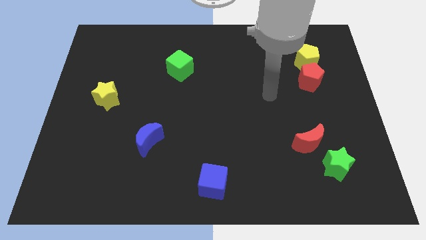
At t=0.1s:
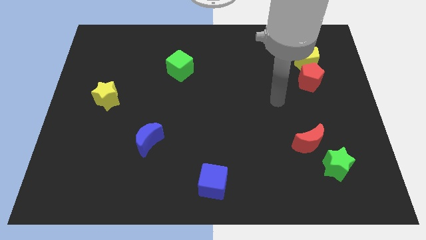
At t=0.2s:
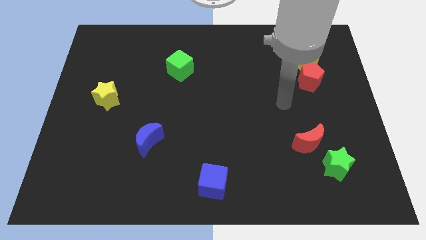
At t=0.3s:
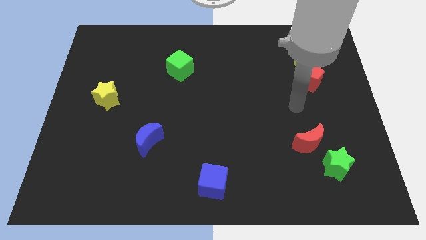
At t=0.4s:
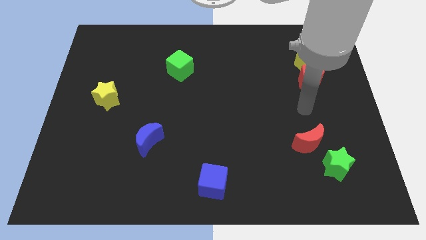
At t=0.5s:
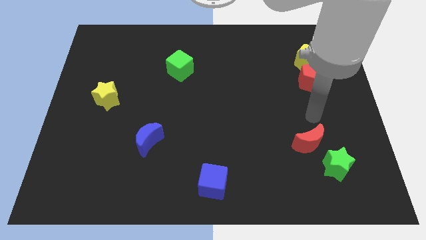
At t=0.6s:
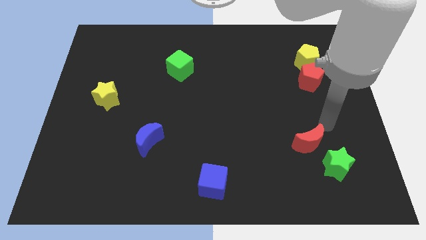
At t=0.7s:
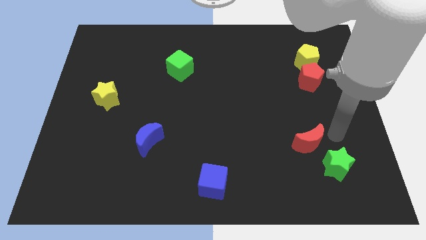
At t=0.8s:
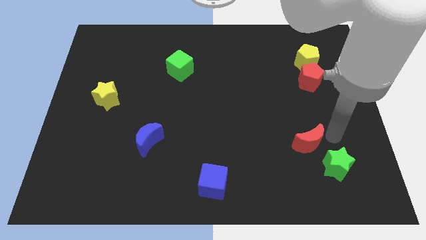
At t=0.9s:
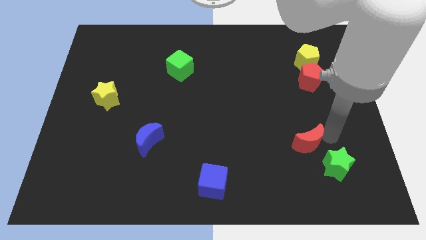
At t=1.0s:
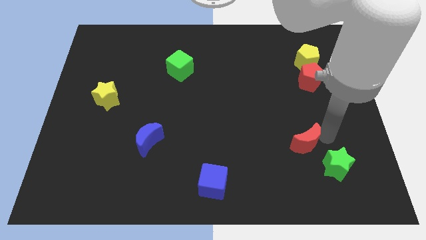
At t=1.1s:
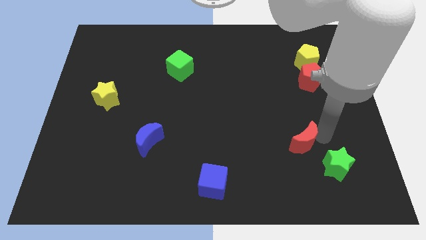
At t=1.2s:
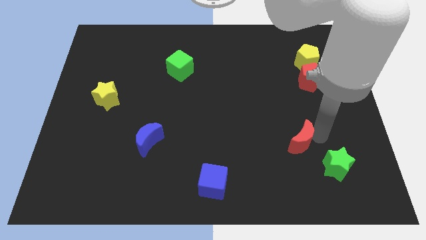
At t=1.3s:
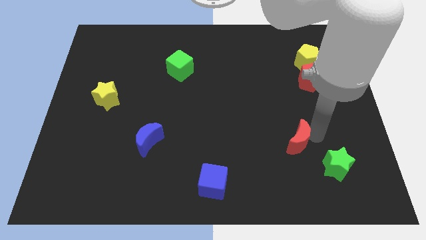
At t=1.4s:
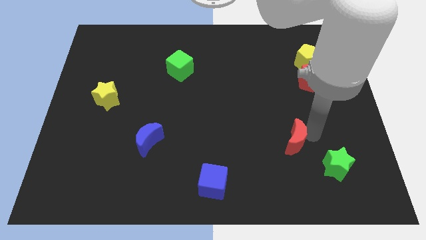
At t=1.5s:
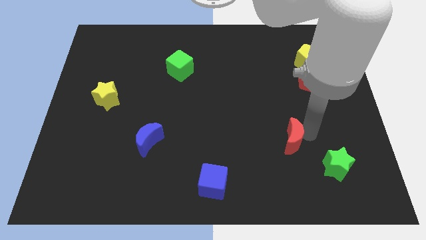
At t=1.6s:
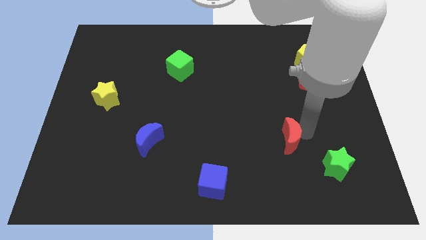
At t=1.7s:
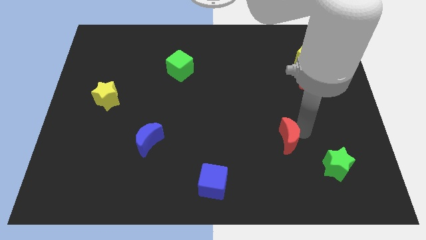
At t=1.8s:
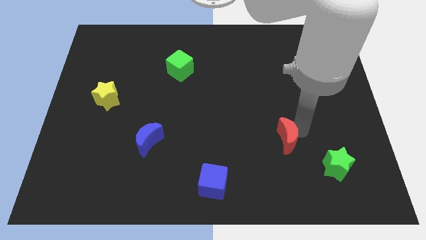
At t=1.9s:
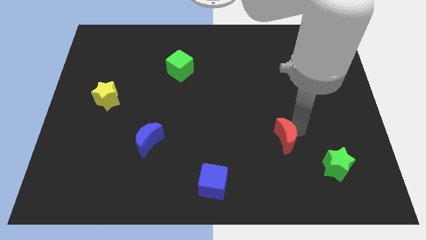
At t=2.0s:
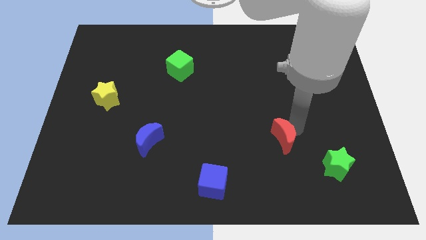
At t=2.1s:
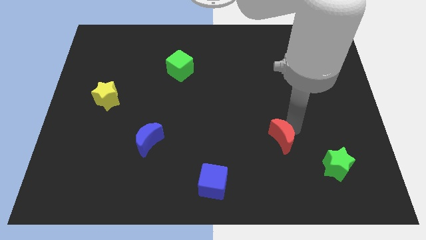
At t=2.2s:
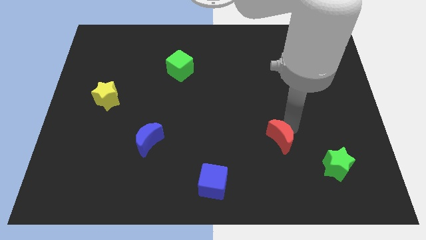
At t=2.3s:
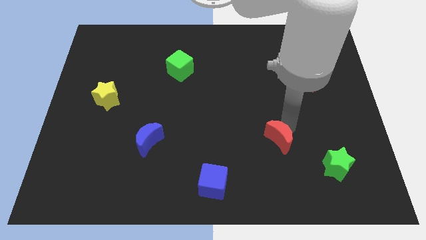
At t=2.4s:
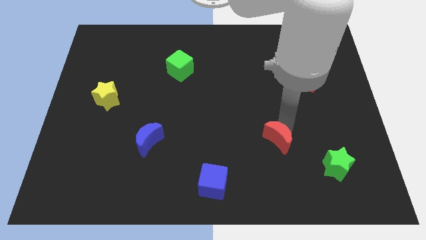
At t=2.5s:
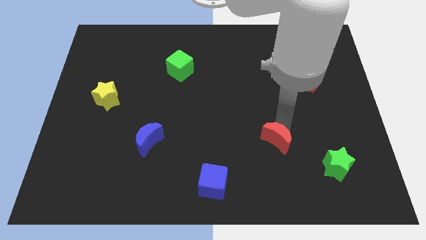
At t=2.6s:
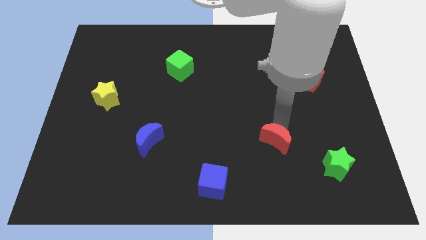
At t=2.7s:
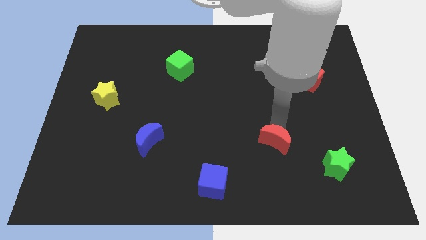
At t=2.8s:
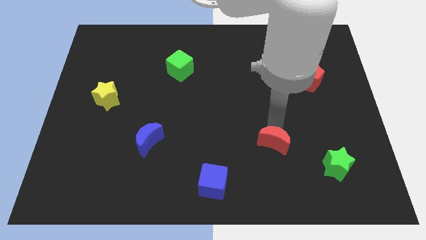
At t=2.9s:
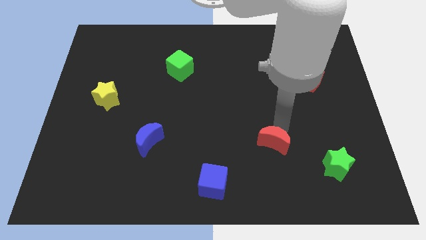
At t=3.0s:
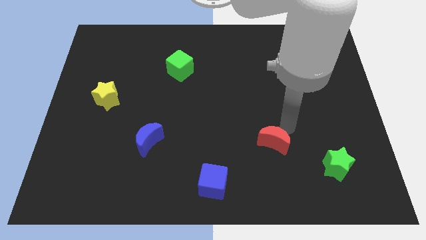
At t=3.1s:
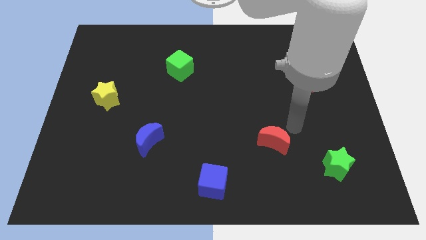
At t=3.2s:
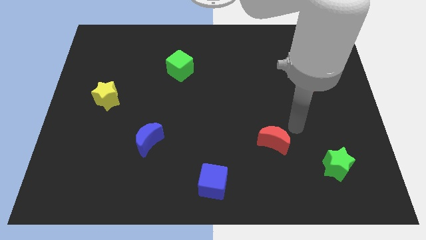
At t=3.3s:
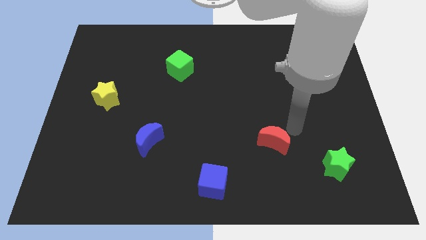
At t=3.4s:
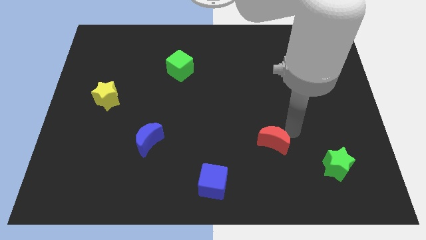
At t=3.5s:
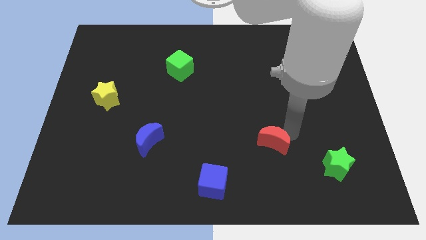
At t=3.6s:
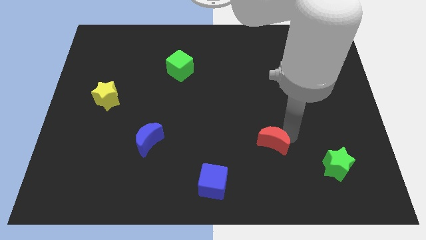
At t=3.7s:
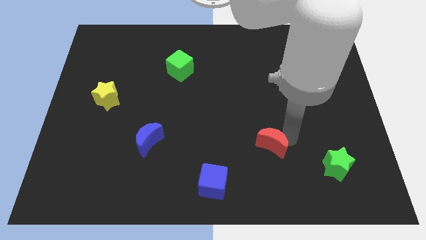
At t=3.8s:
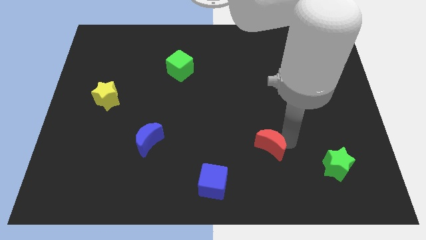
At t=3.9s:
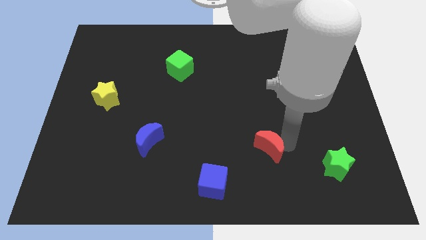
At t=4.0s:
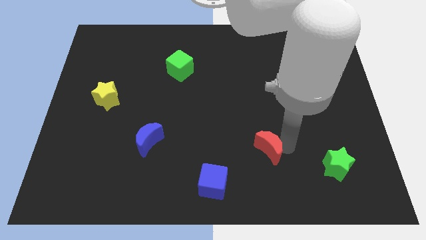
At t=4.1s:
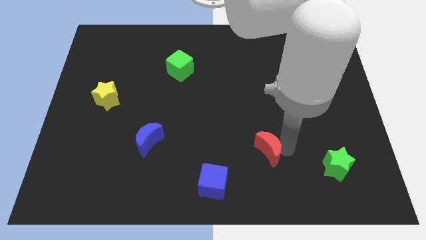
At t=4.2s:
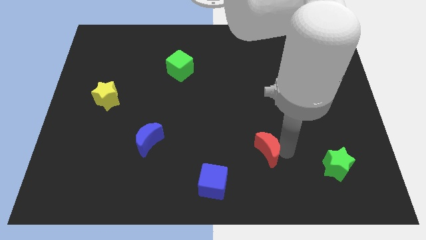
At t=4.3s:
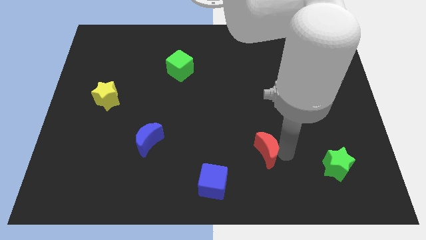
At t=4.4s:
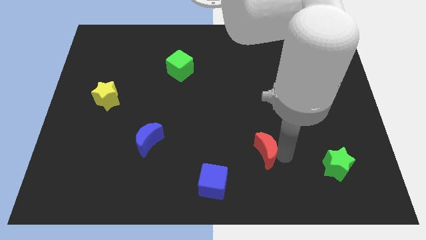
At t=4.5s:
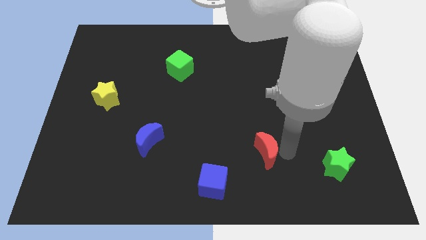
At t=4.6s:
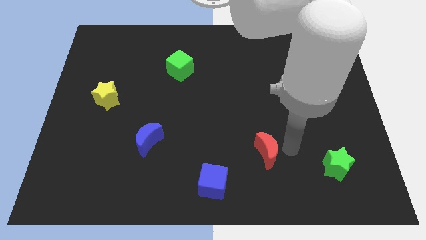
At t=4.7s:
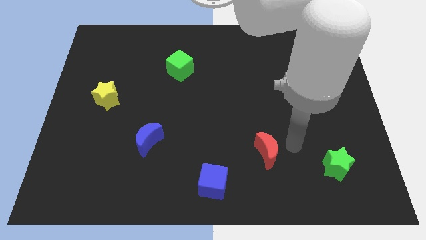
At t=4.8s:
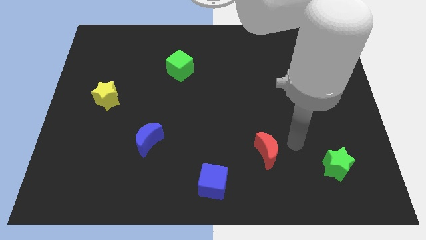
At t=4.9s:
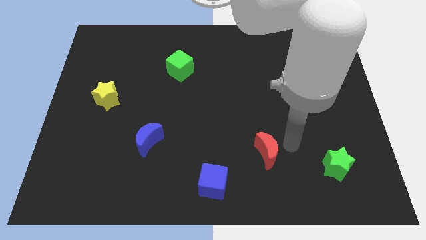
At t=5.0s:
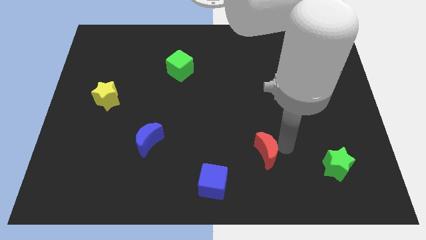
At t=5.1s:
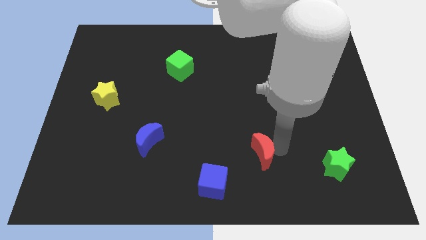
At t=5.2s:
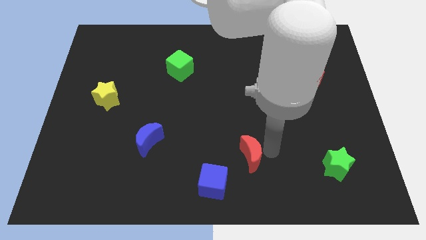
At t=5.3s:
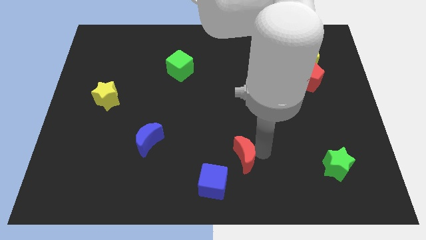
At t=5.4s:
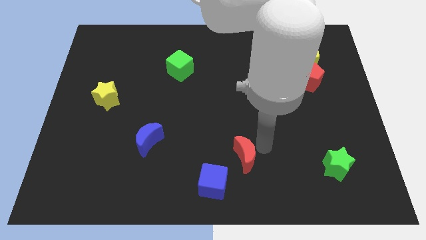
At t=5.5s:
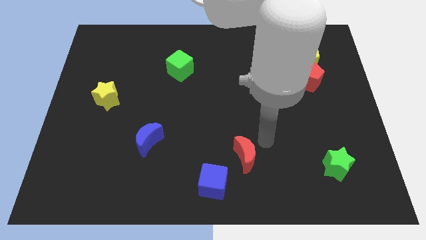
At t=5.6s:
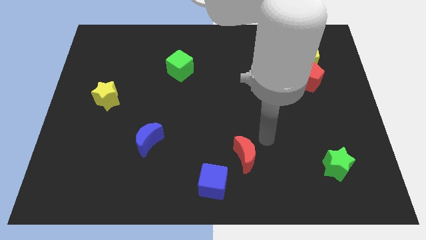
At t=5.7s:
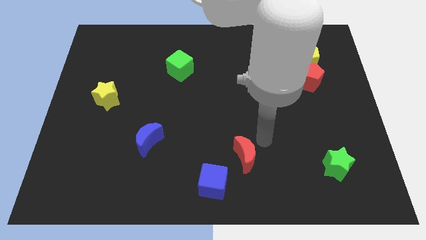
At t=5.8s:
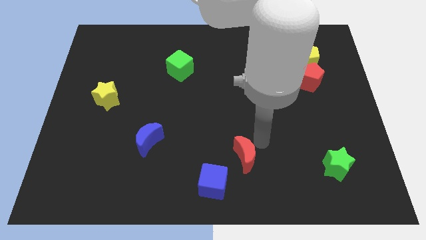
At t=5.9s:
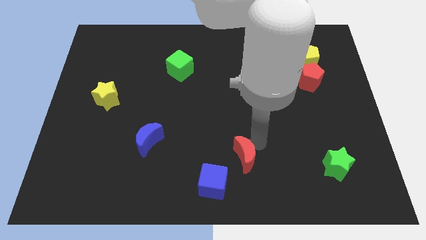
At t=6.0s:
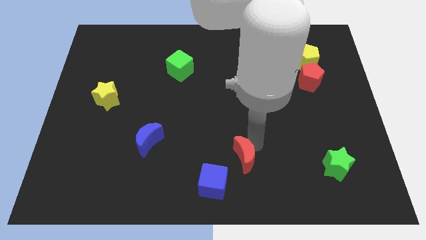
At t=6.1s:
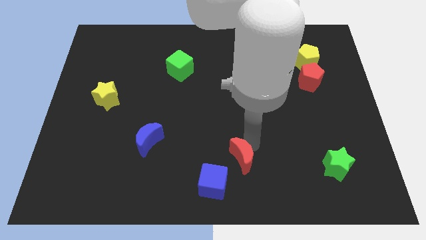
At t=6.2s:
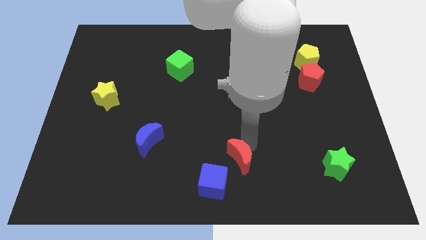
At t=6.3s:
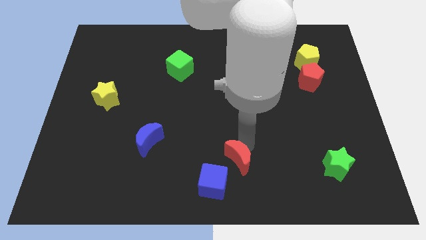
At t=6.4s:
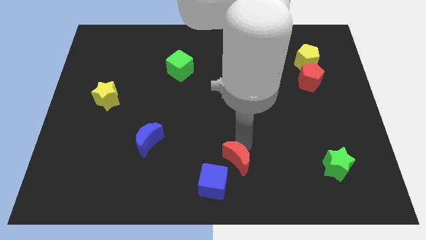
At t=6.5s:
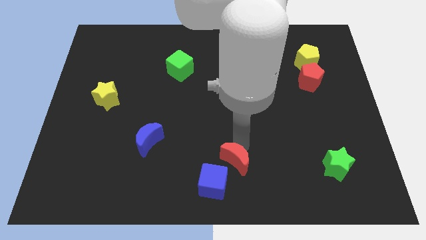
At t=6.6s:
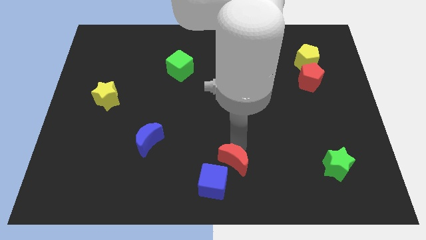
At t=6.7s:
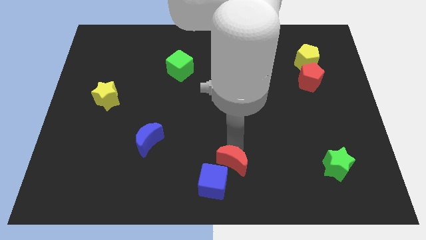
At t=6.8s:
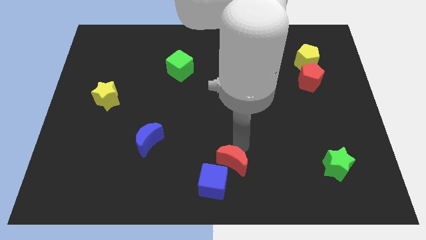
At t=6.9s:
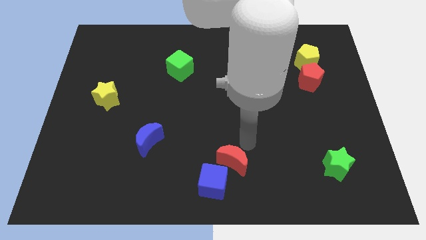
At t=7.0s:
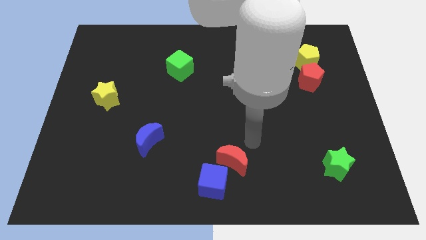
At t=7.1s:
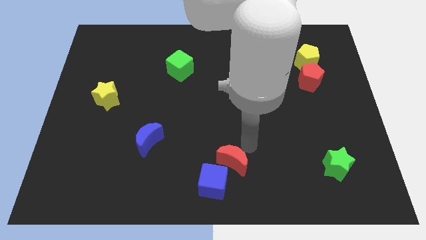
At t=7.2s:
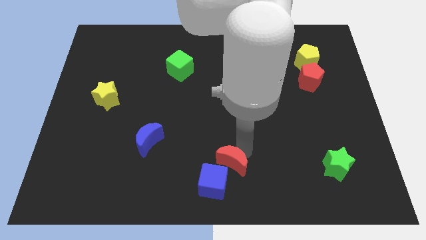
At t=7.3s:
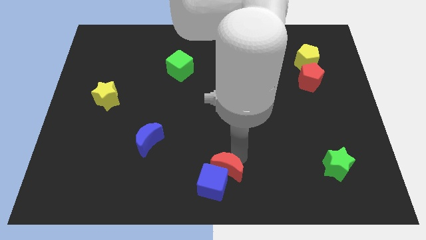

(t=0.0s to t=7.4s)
put the red moon next to the blue cube

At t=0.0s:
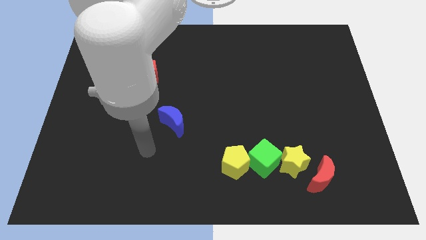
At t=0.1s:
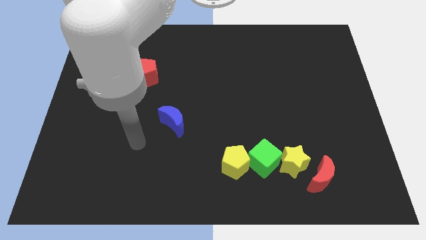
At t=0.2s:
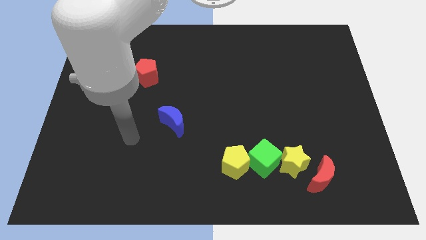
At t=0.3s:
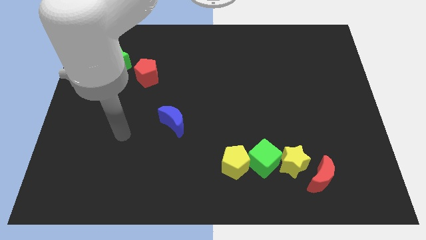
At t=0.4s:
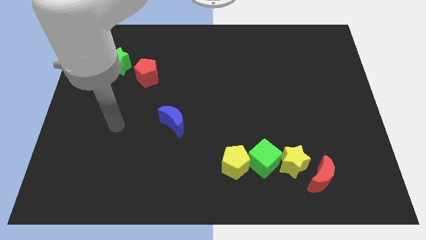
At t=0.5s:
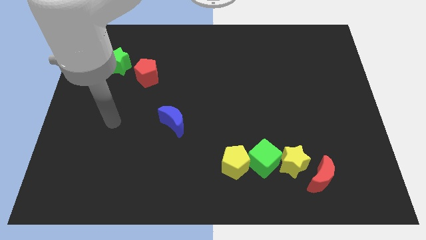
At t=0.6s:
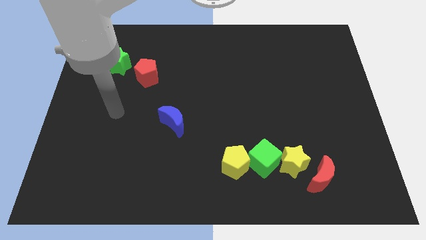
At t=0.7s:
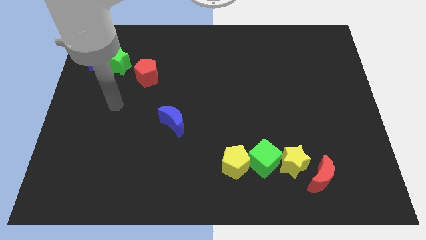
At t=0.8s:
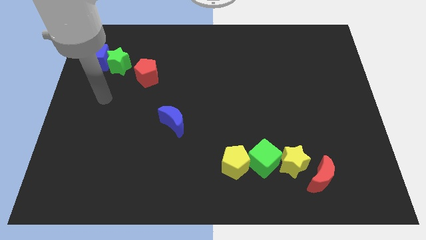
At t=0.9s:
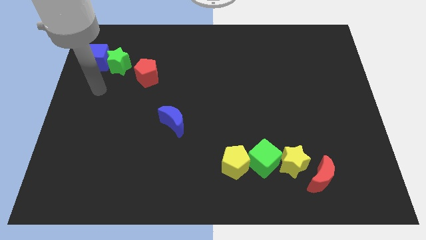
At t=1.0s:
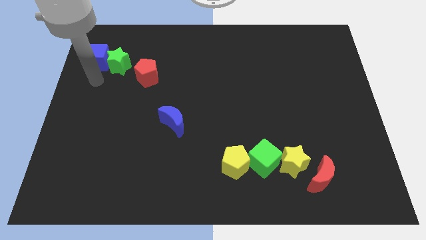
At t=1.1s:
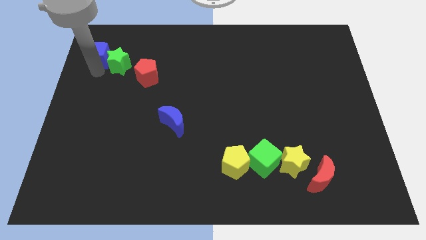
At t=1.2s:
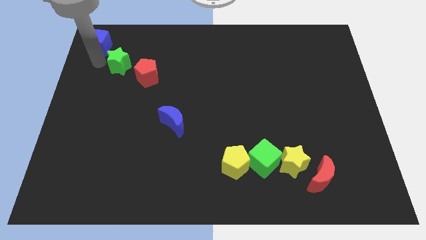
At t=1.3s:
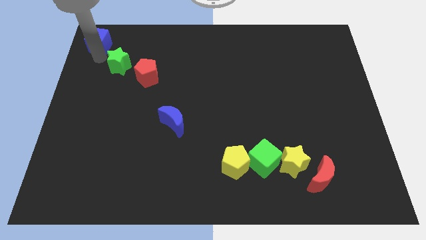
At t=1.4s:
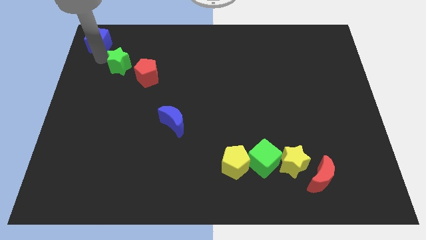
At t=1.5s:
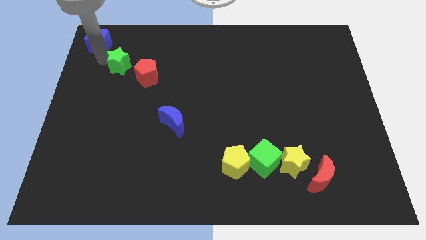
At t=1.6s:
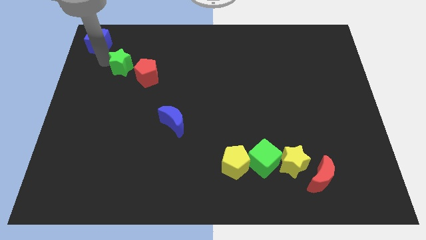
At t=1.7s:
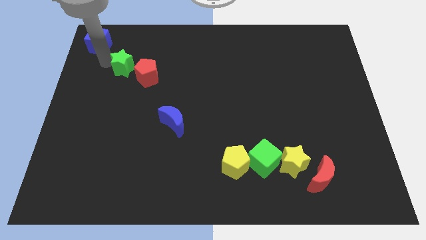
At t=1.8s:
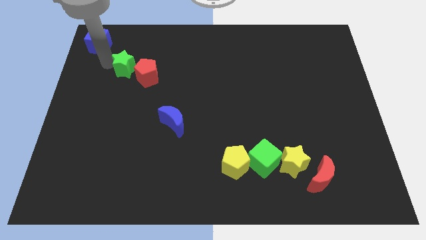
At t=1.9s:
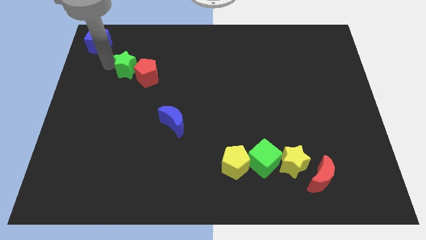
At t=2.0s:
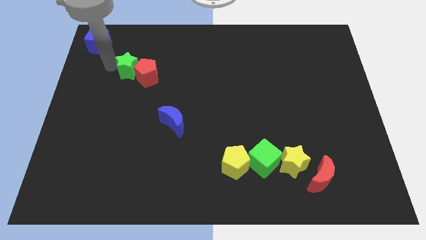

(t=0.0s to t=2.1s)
slide the green star to the red pentagon
